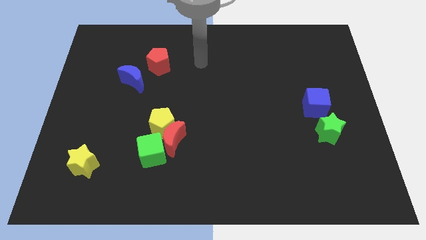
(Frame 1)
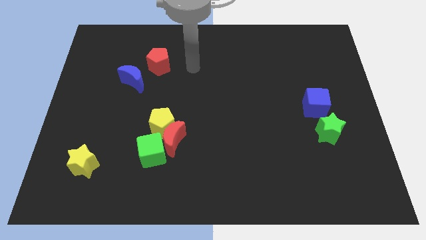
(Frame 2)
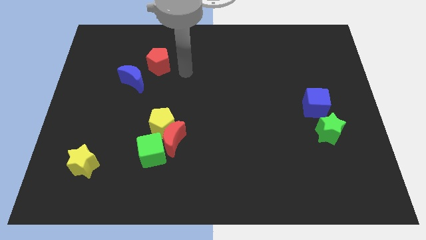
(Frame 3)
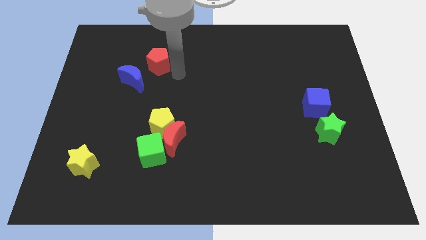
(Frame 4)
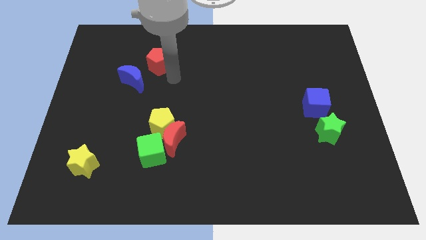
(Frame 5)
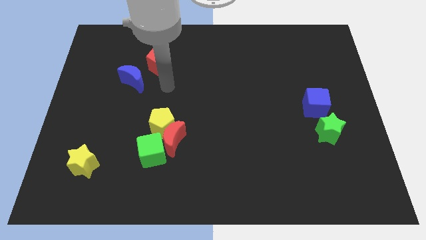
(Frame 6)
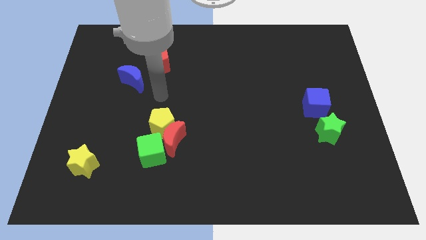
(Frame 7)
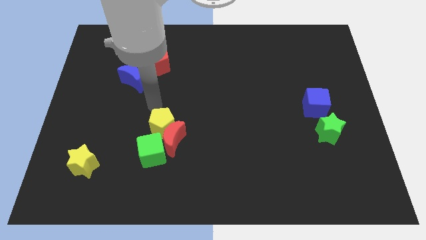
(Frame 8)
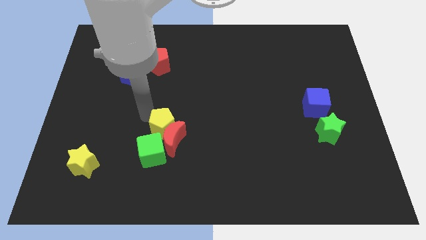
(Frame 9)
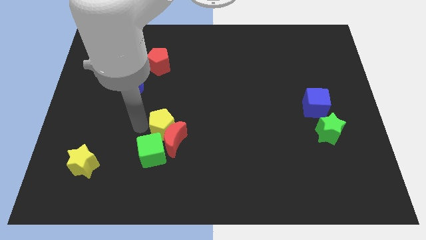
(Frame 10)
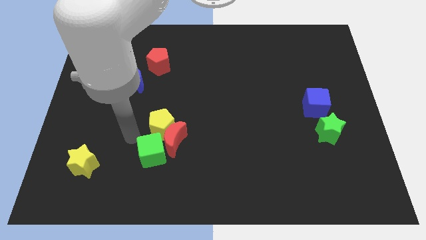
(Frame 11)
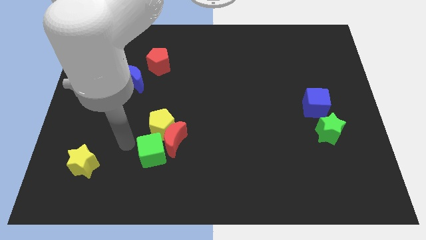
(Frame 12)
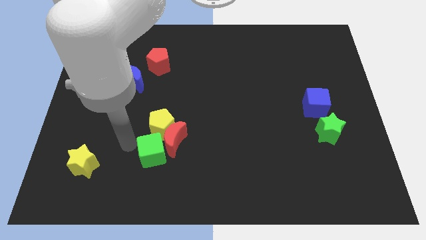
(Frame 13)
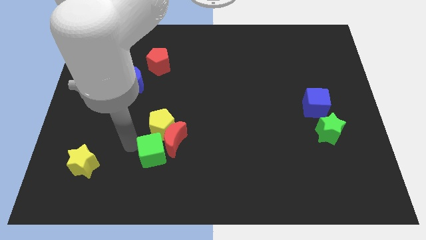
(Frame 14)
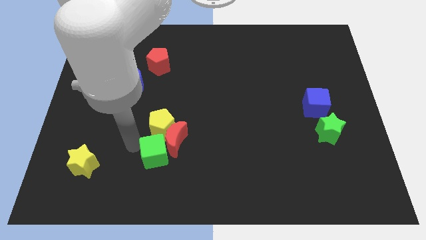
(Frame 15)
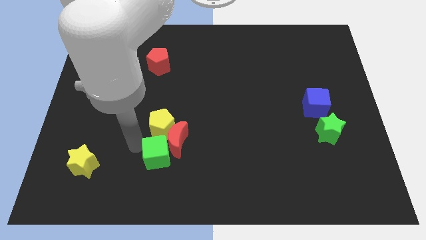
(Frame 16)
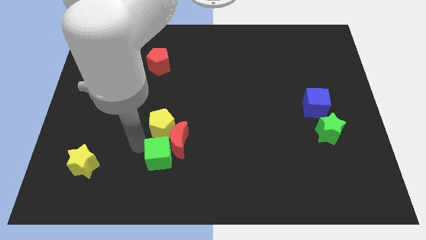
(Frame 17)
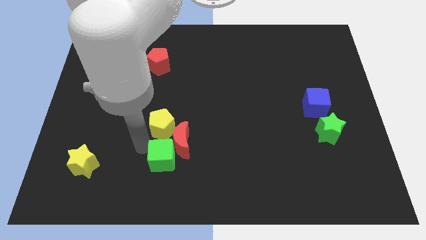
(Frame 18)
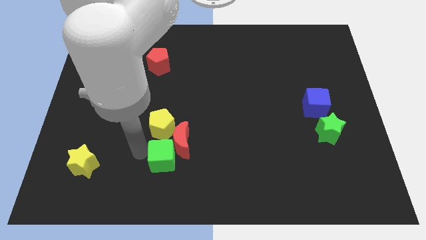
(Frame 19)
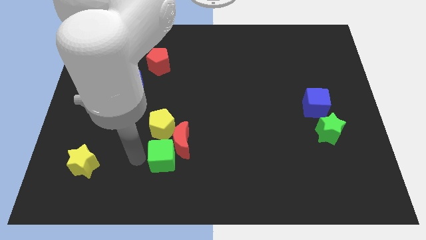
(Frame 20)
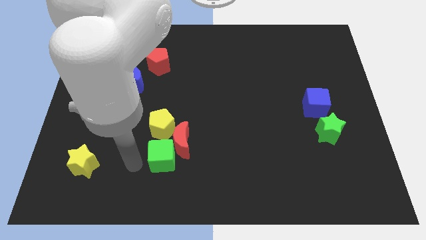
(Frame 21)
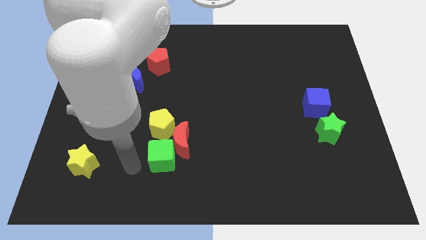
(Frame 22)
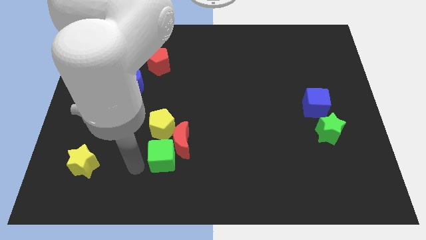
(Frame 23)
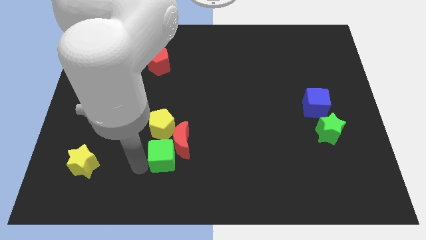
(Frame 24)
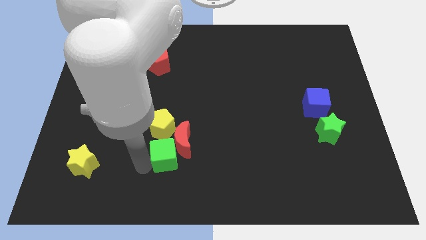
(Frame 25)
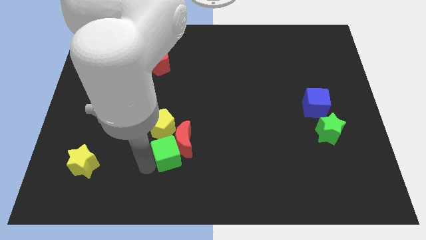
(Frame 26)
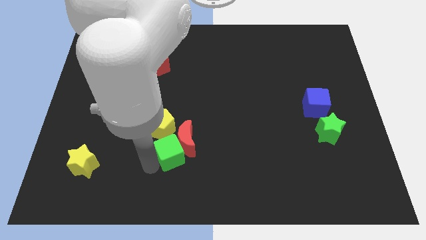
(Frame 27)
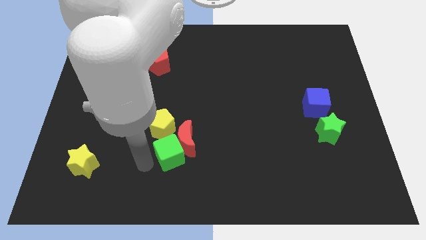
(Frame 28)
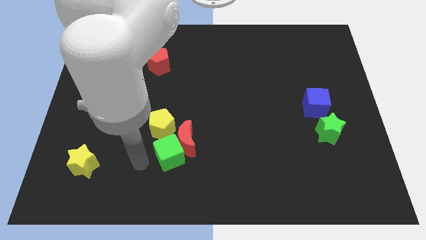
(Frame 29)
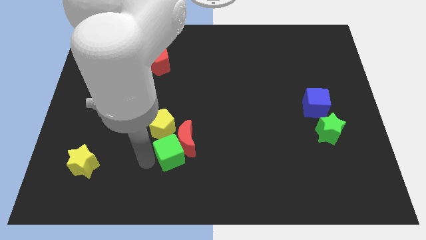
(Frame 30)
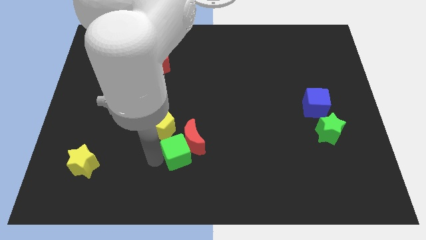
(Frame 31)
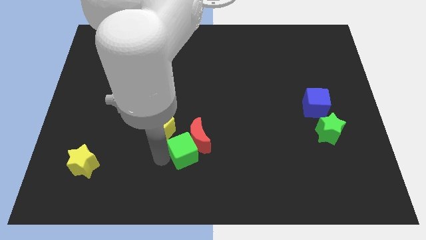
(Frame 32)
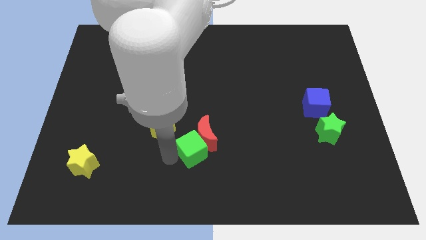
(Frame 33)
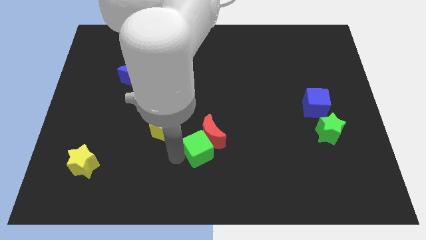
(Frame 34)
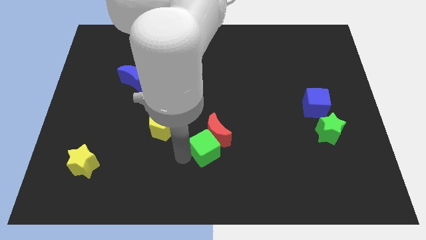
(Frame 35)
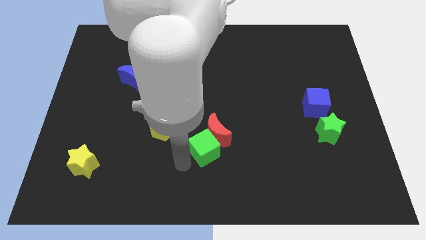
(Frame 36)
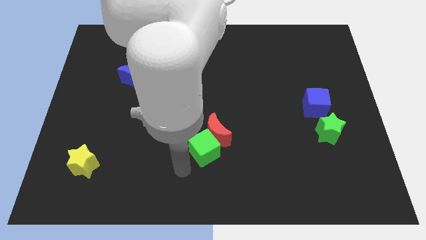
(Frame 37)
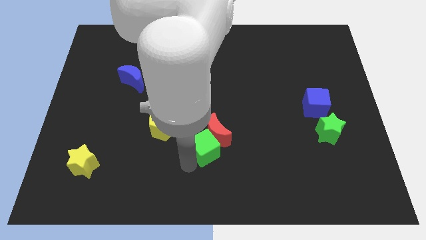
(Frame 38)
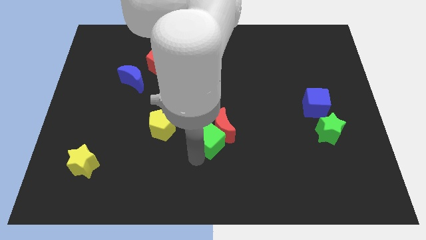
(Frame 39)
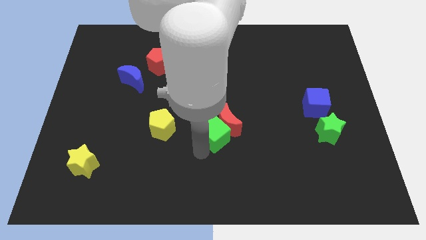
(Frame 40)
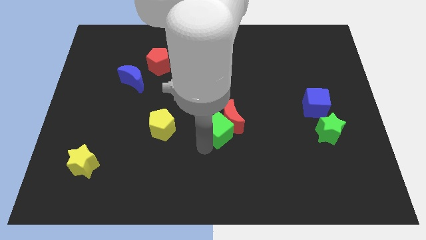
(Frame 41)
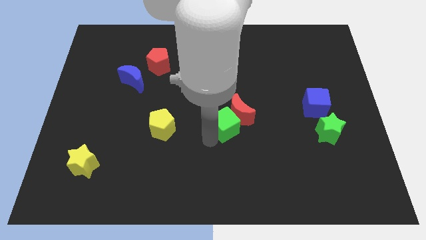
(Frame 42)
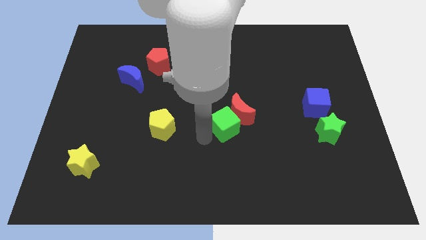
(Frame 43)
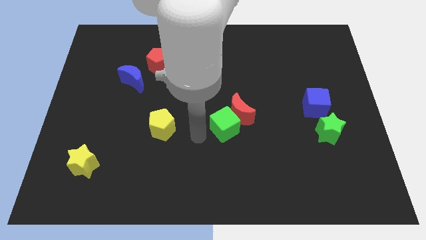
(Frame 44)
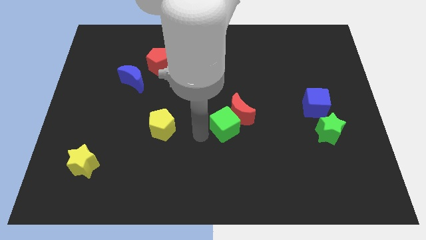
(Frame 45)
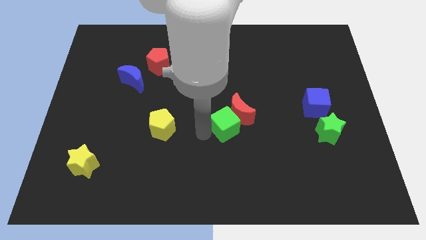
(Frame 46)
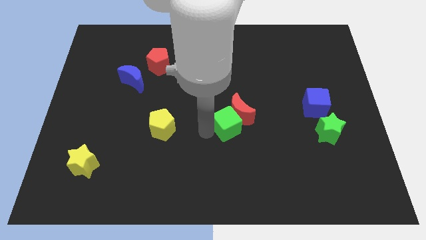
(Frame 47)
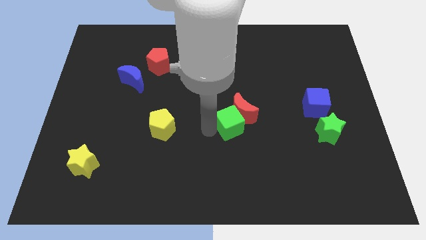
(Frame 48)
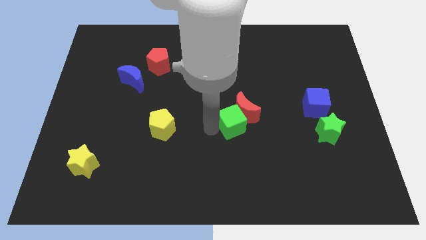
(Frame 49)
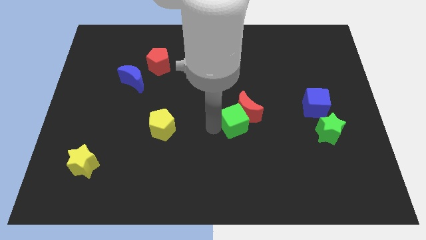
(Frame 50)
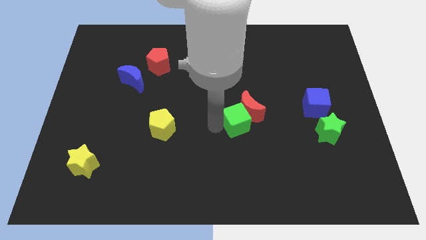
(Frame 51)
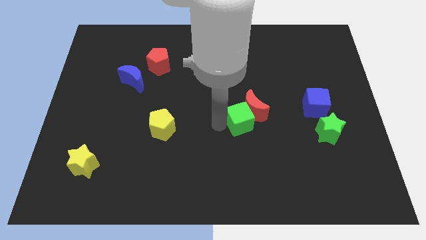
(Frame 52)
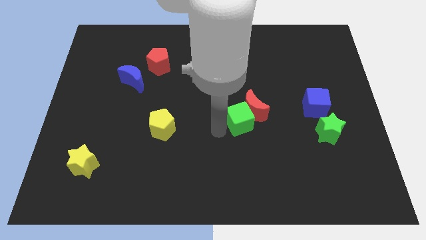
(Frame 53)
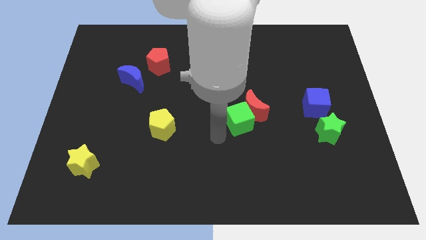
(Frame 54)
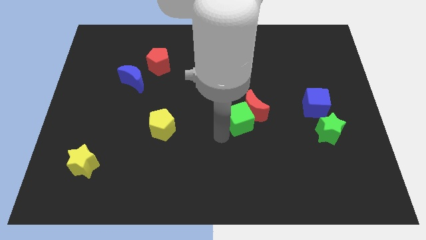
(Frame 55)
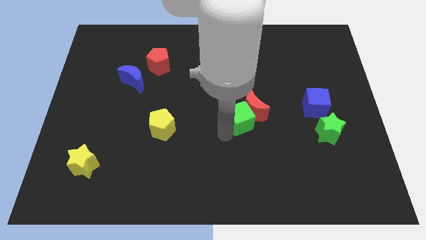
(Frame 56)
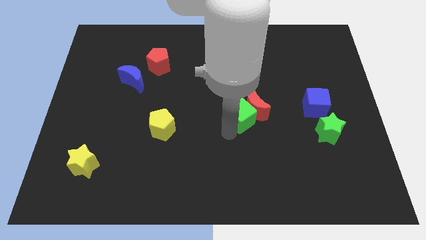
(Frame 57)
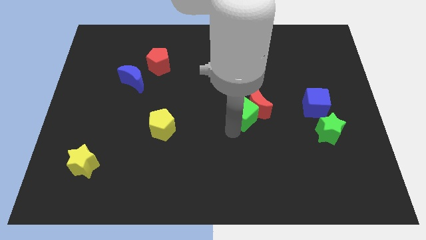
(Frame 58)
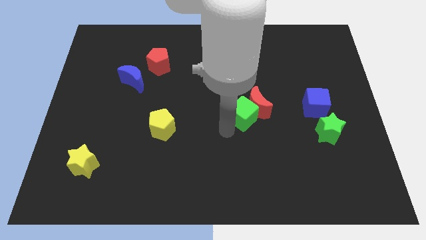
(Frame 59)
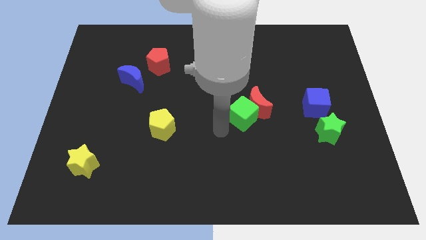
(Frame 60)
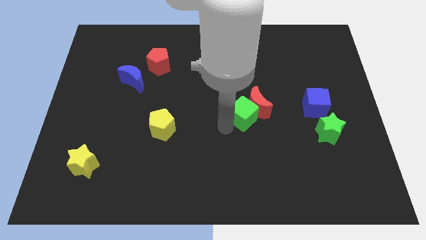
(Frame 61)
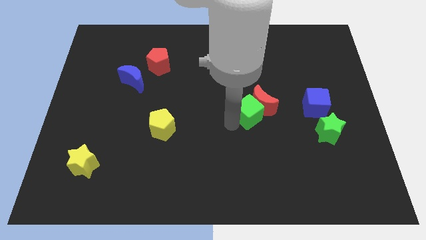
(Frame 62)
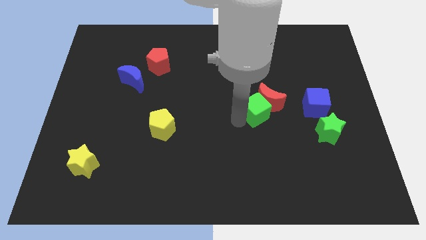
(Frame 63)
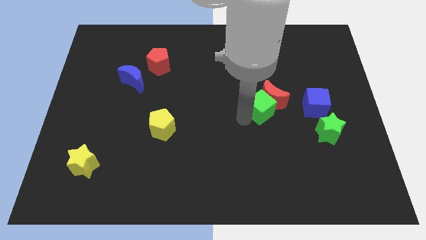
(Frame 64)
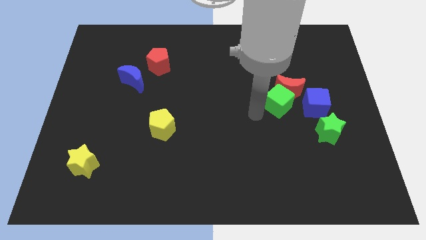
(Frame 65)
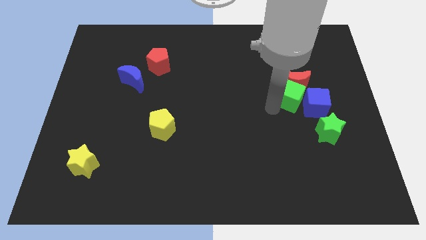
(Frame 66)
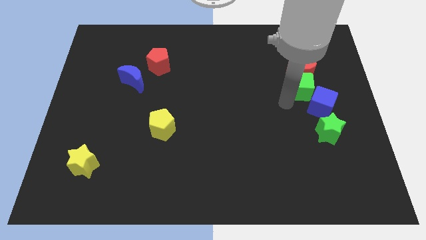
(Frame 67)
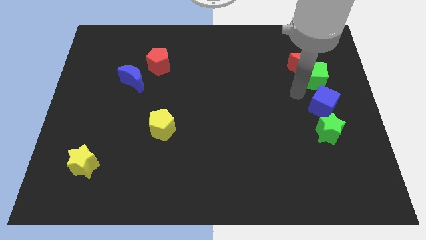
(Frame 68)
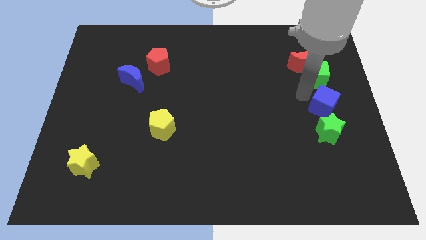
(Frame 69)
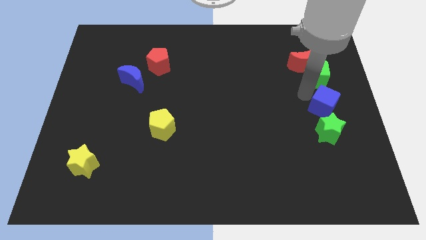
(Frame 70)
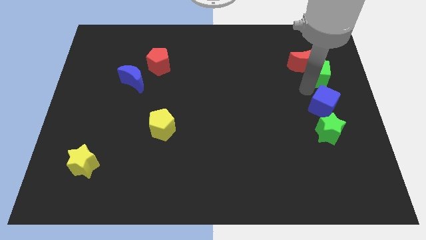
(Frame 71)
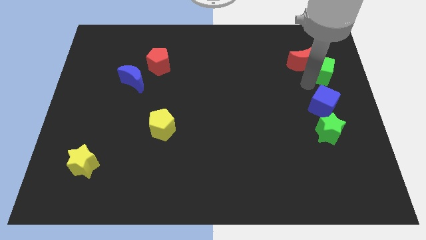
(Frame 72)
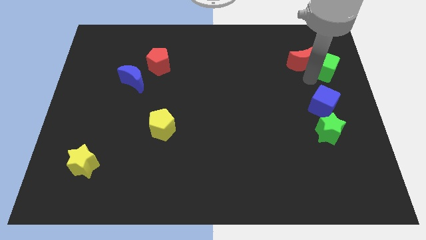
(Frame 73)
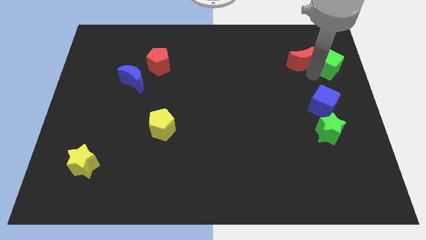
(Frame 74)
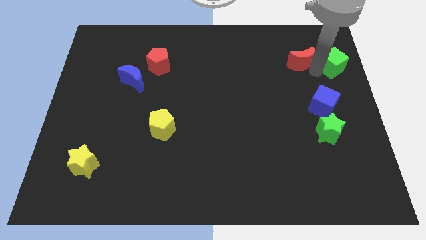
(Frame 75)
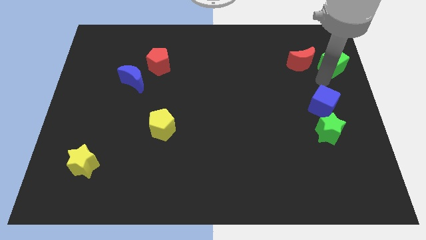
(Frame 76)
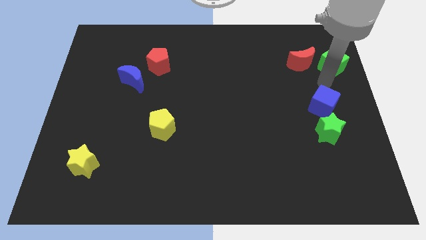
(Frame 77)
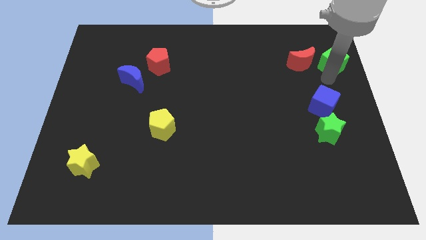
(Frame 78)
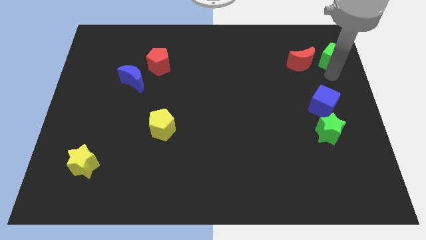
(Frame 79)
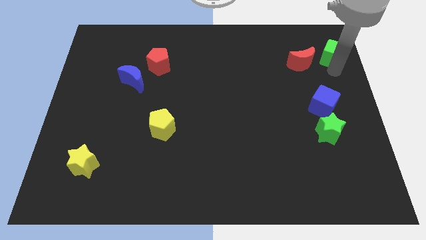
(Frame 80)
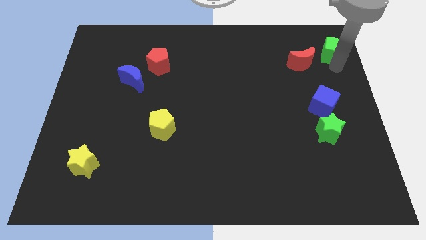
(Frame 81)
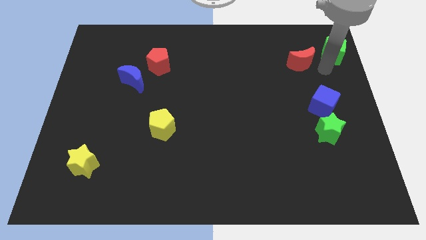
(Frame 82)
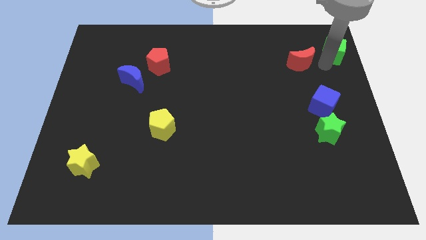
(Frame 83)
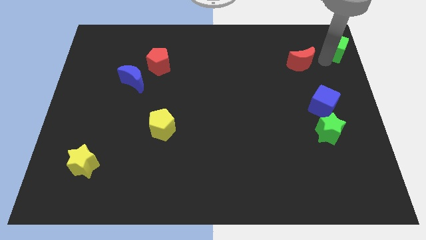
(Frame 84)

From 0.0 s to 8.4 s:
put the green cube to the top right
